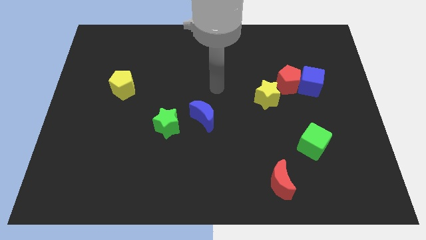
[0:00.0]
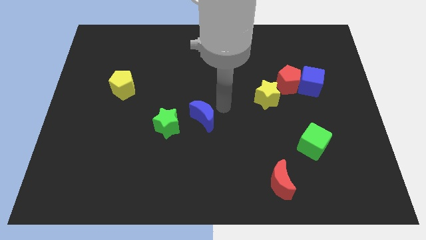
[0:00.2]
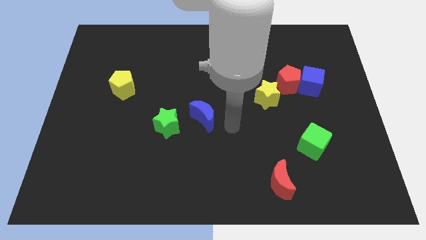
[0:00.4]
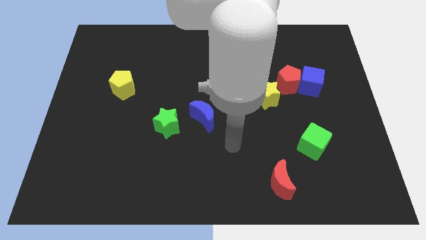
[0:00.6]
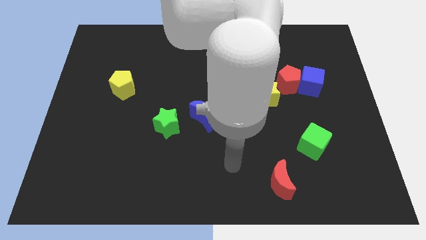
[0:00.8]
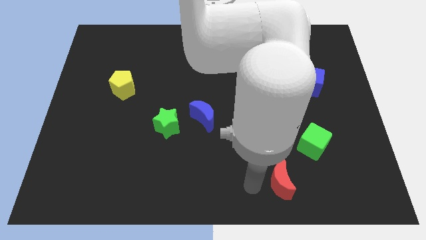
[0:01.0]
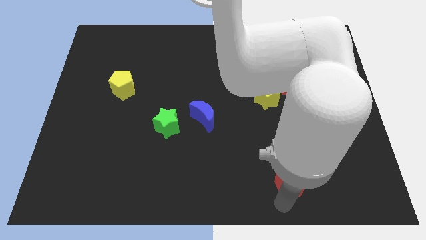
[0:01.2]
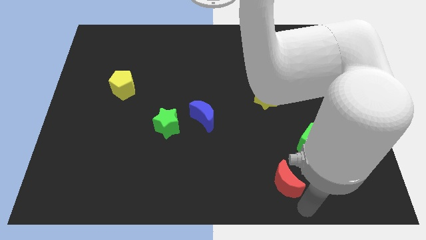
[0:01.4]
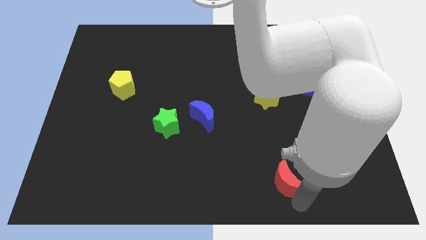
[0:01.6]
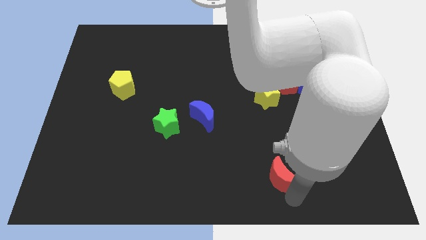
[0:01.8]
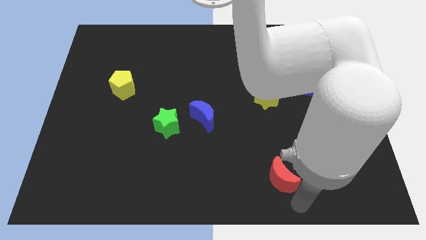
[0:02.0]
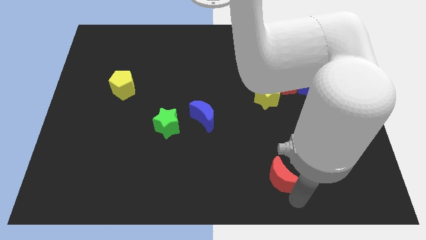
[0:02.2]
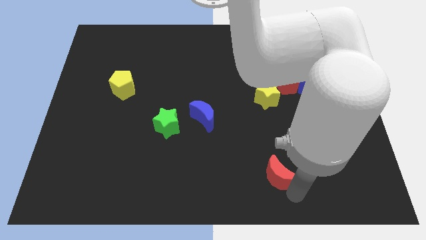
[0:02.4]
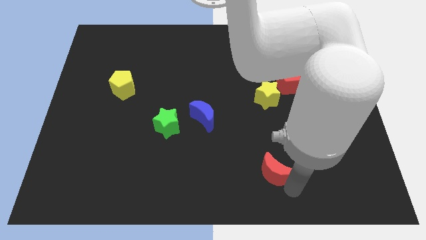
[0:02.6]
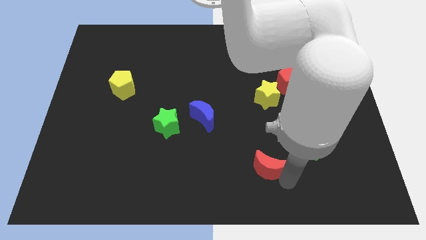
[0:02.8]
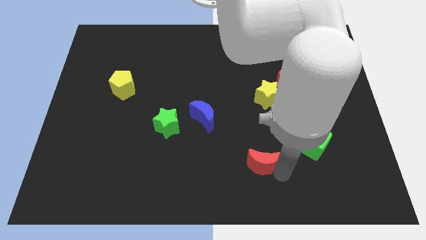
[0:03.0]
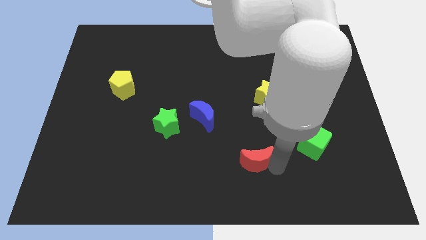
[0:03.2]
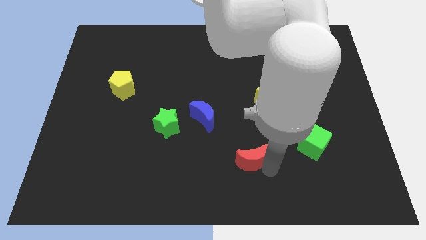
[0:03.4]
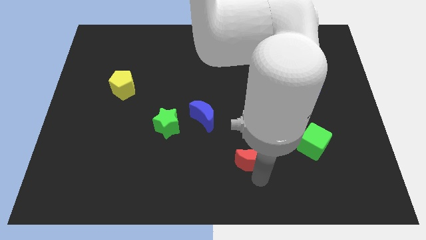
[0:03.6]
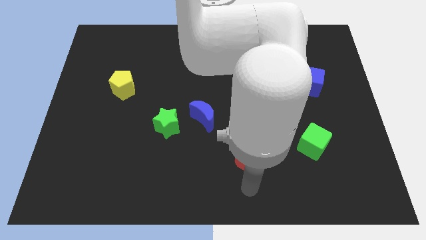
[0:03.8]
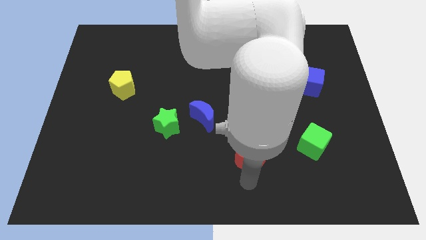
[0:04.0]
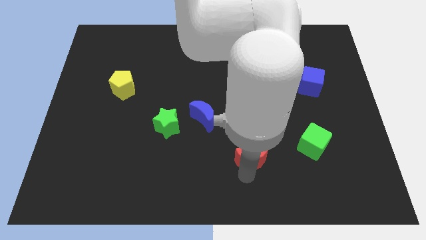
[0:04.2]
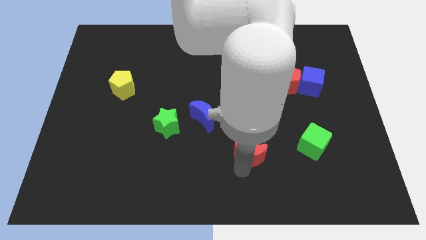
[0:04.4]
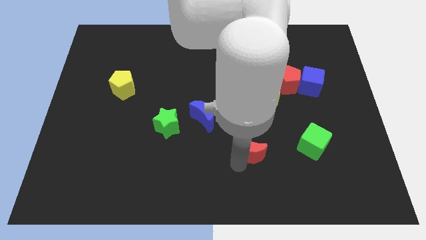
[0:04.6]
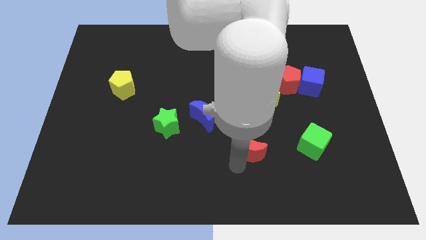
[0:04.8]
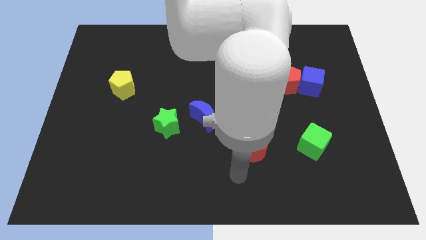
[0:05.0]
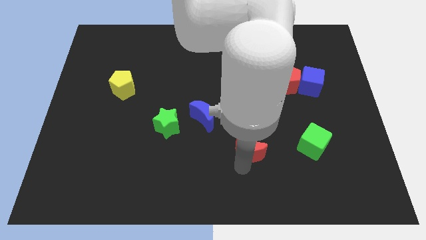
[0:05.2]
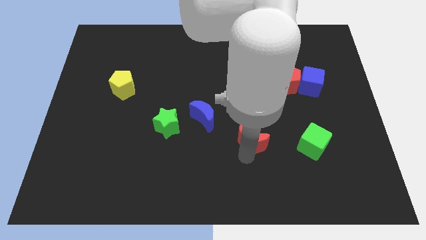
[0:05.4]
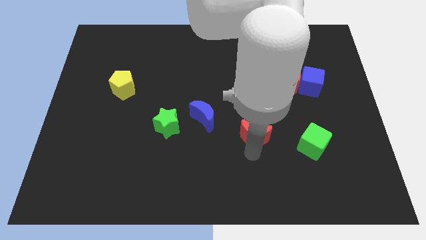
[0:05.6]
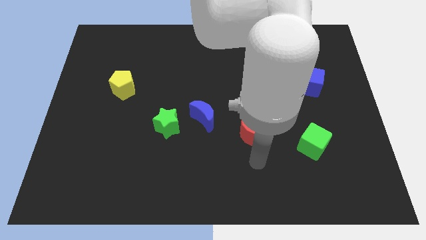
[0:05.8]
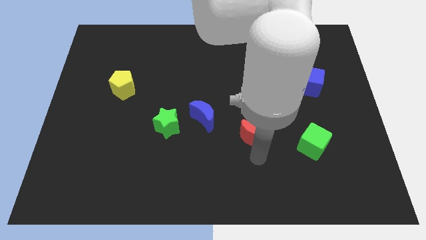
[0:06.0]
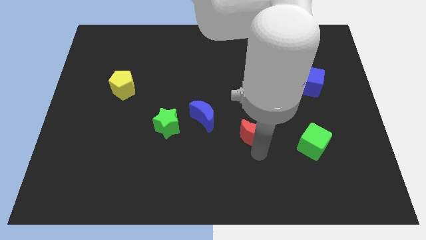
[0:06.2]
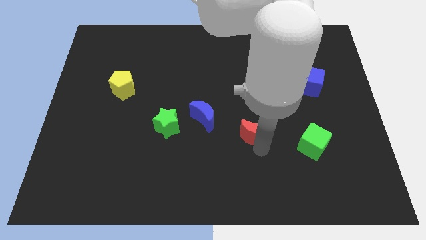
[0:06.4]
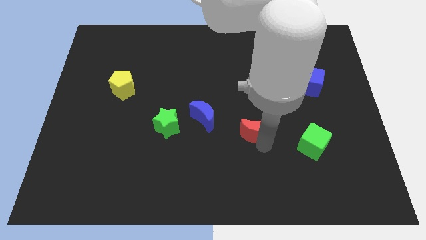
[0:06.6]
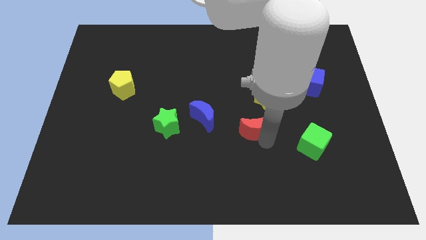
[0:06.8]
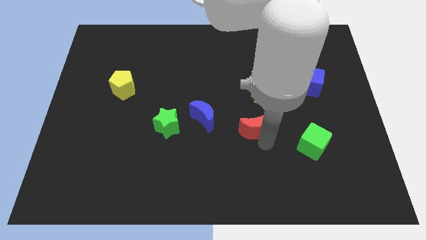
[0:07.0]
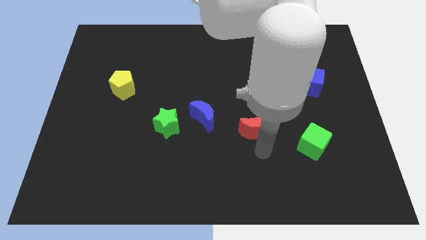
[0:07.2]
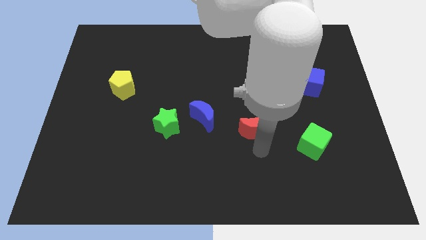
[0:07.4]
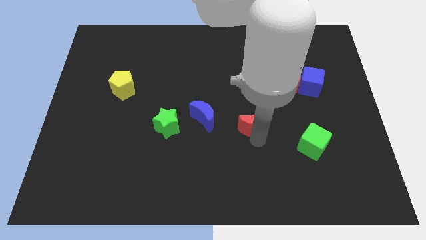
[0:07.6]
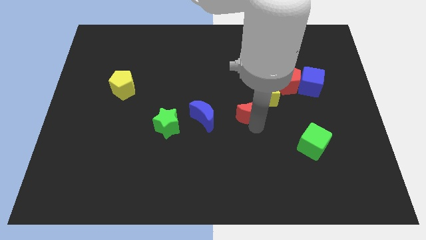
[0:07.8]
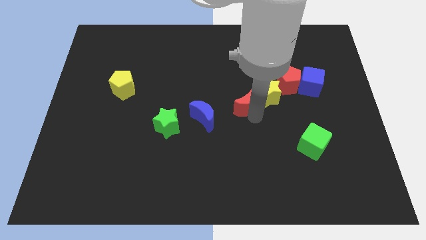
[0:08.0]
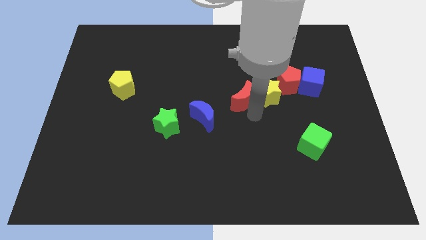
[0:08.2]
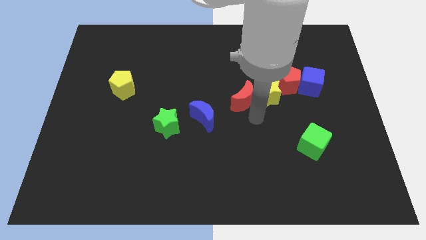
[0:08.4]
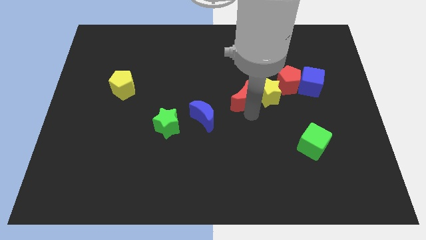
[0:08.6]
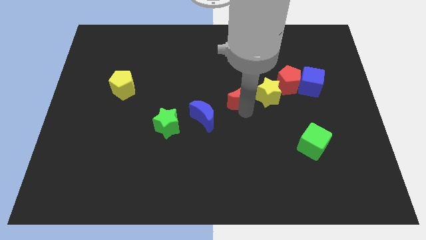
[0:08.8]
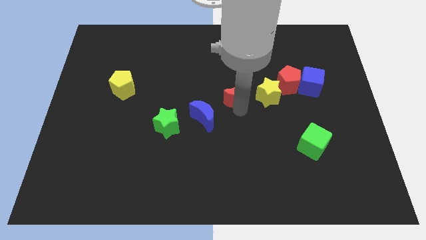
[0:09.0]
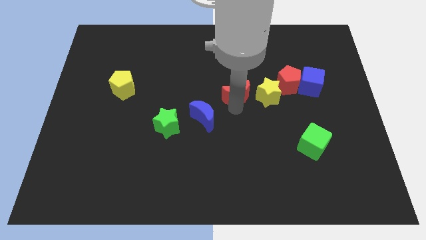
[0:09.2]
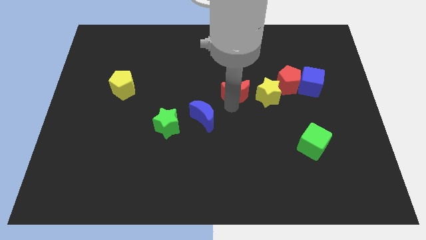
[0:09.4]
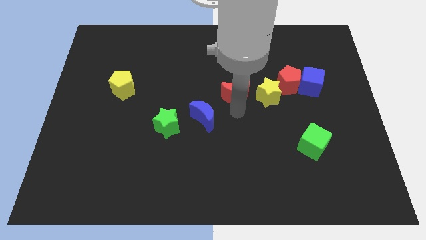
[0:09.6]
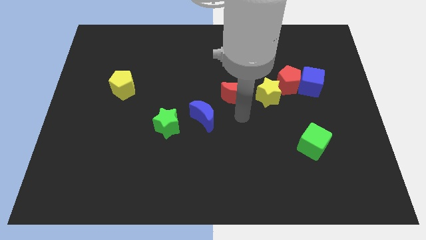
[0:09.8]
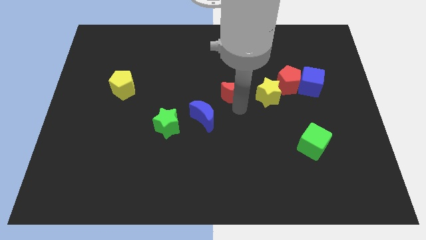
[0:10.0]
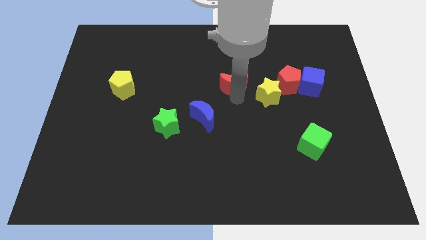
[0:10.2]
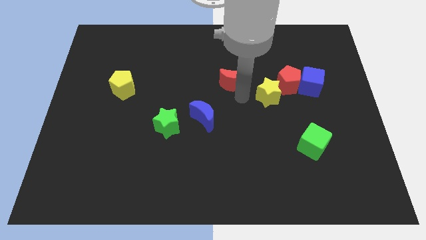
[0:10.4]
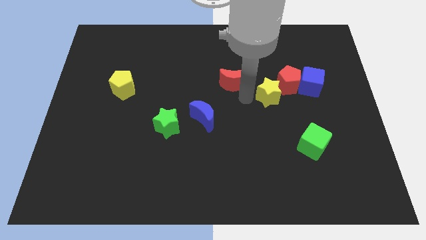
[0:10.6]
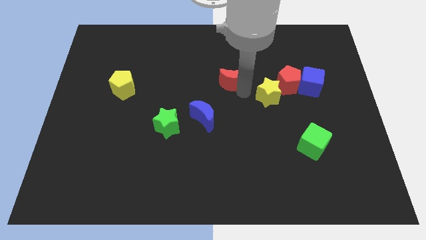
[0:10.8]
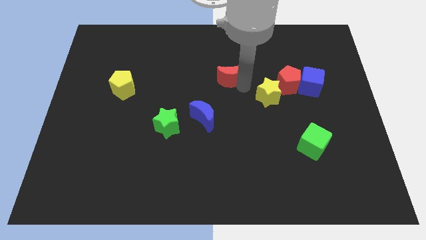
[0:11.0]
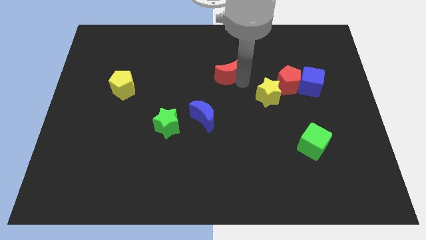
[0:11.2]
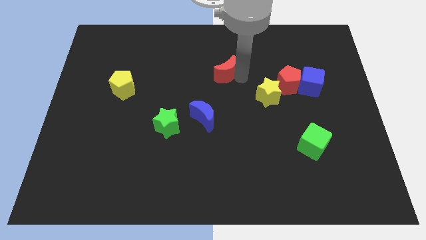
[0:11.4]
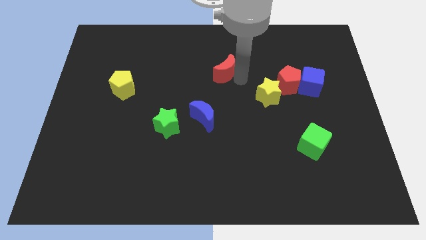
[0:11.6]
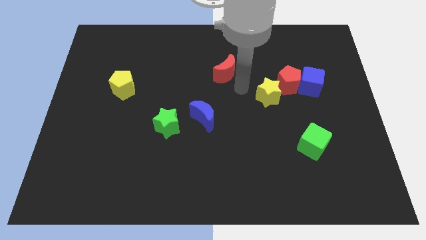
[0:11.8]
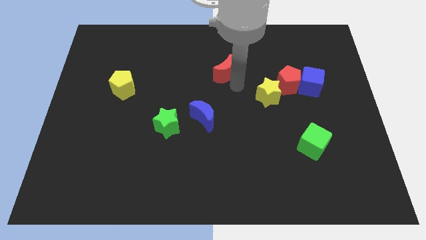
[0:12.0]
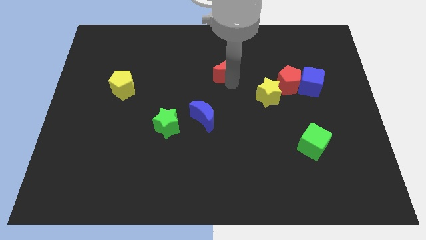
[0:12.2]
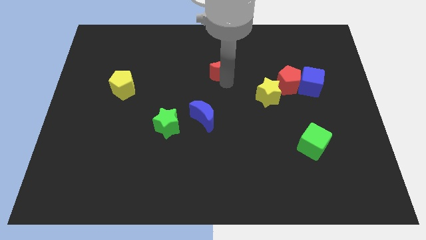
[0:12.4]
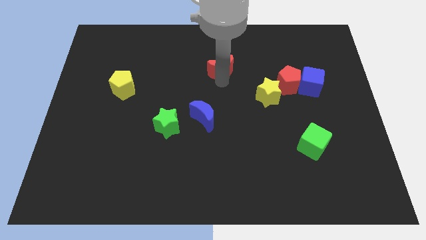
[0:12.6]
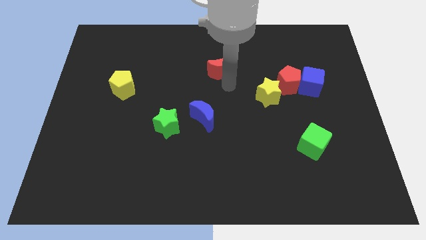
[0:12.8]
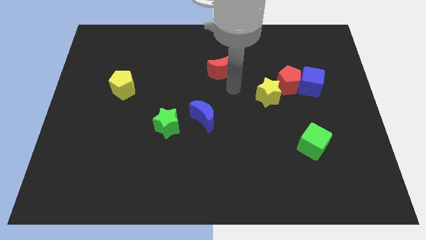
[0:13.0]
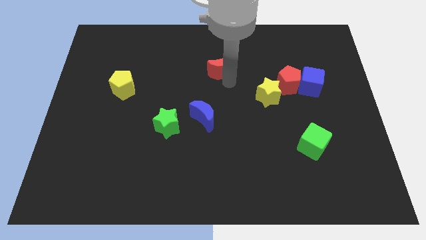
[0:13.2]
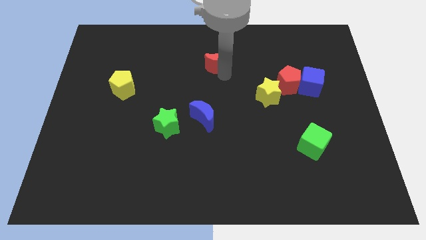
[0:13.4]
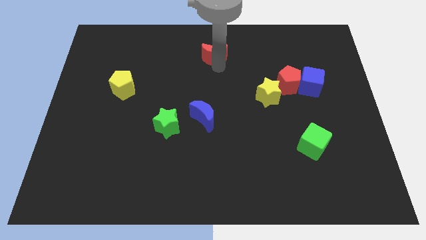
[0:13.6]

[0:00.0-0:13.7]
slide the red moon to the towards your base

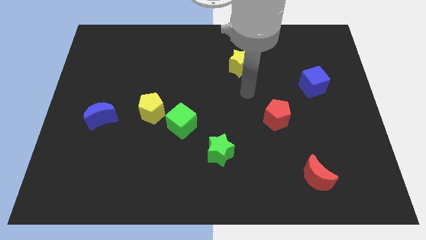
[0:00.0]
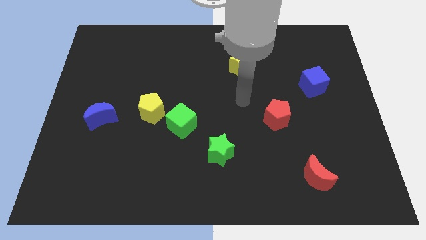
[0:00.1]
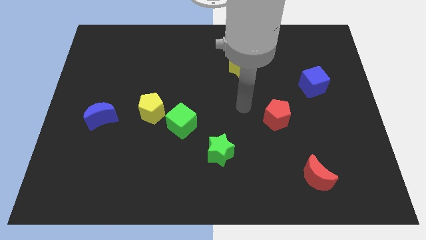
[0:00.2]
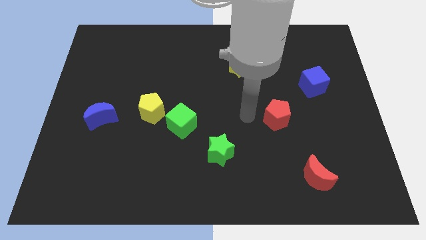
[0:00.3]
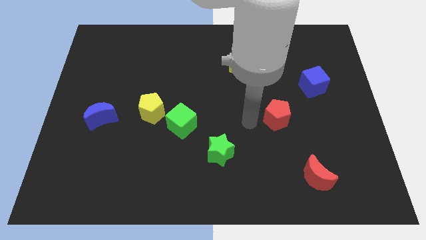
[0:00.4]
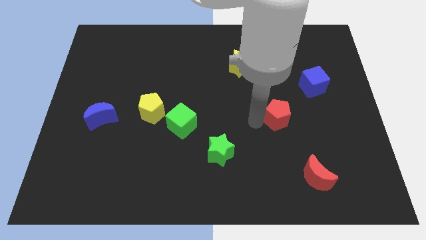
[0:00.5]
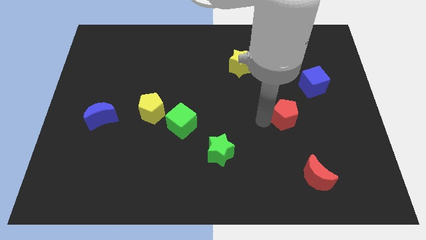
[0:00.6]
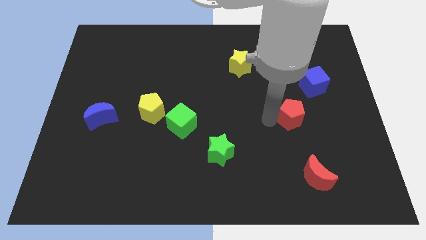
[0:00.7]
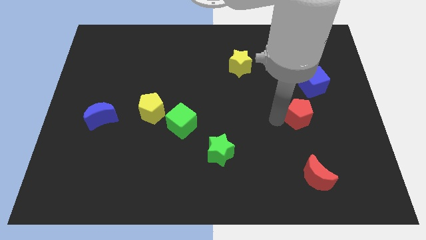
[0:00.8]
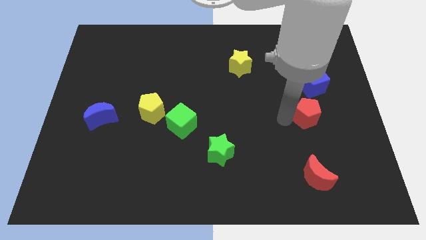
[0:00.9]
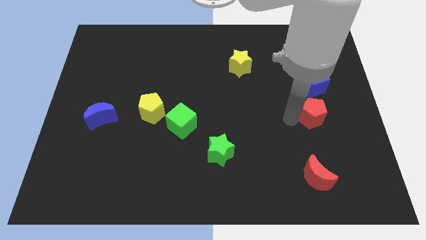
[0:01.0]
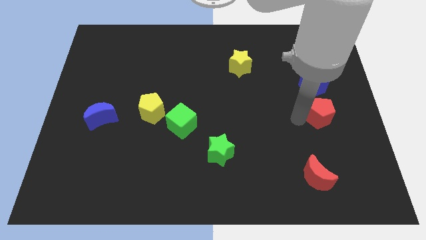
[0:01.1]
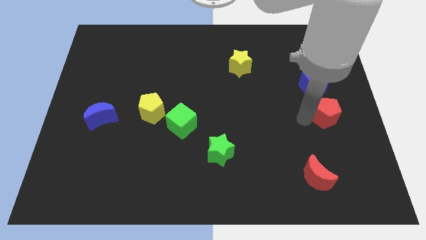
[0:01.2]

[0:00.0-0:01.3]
push the red pentagon to the center right
